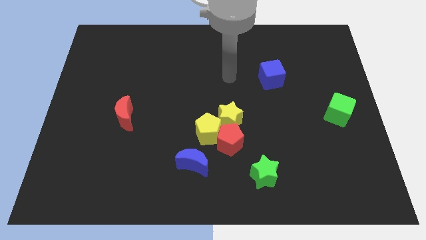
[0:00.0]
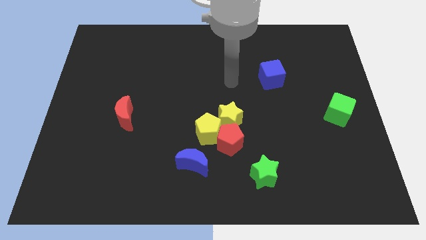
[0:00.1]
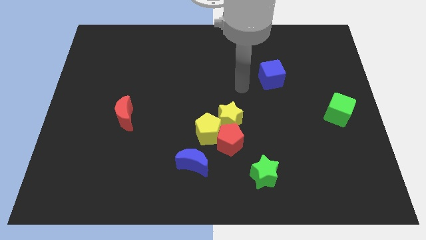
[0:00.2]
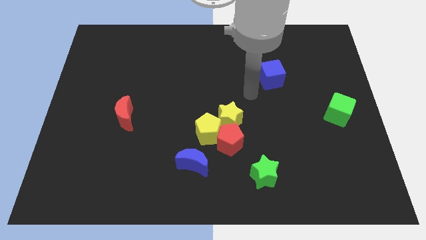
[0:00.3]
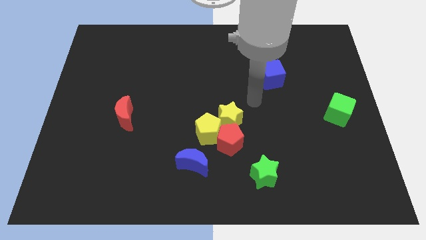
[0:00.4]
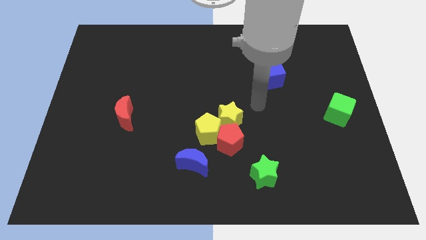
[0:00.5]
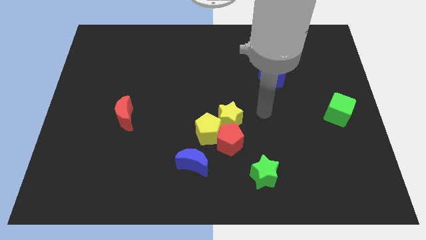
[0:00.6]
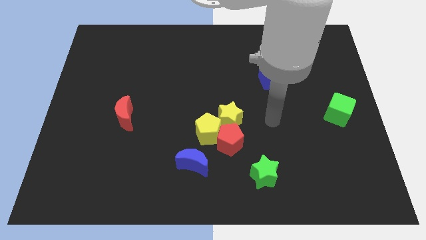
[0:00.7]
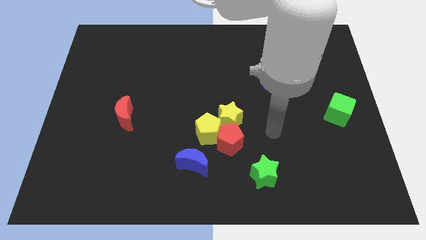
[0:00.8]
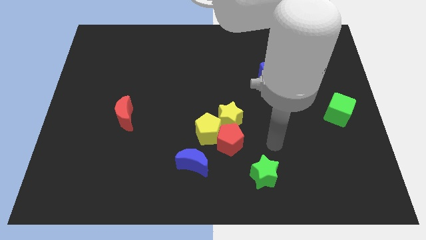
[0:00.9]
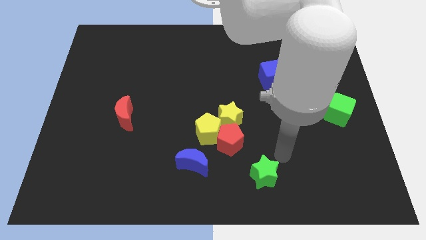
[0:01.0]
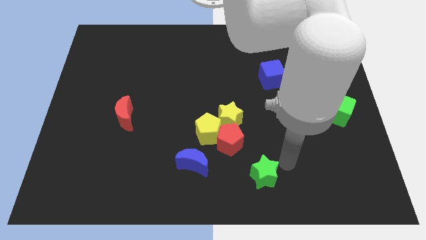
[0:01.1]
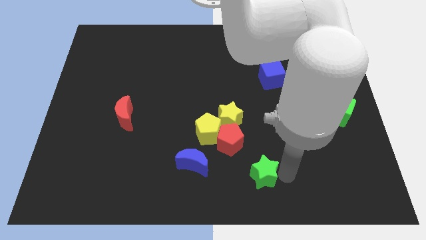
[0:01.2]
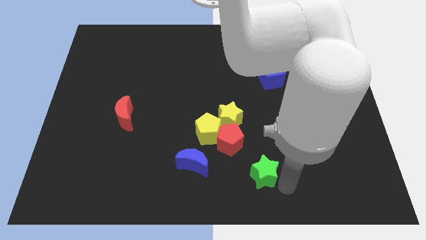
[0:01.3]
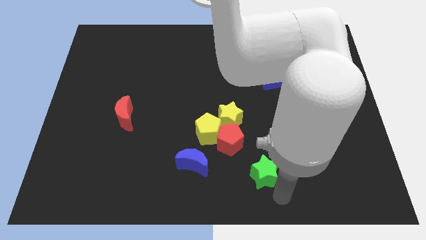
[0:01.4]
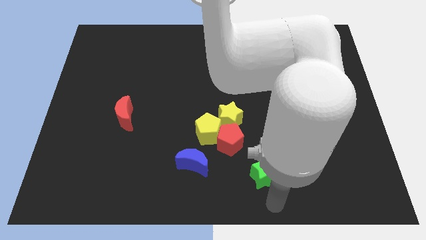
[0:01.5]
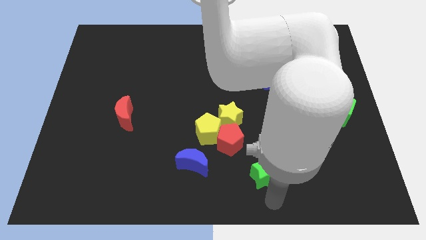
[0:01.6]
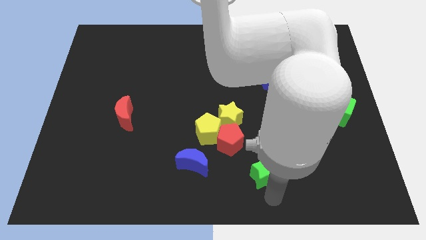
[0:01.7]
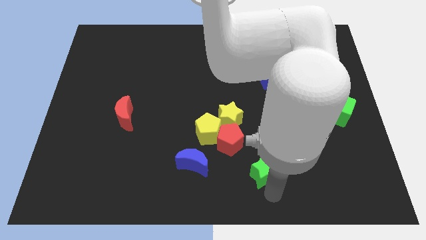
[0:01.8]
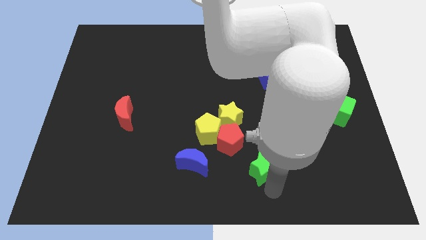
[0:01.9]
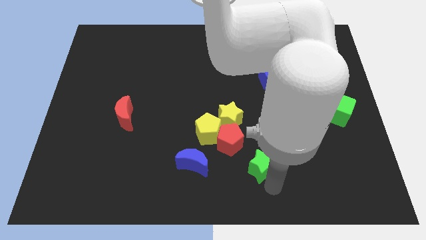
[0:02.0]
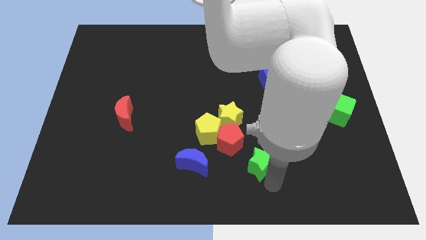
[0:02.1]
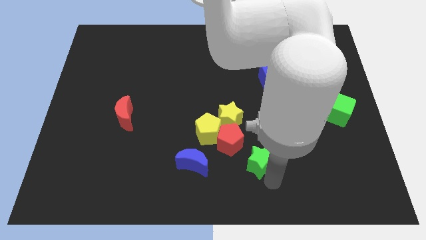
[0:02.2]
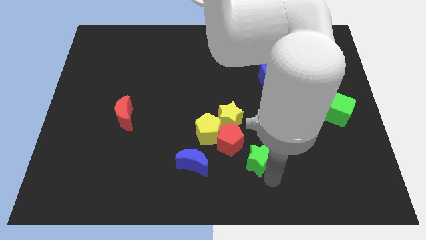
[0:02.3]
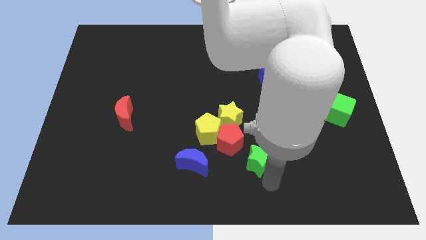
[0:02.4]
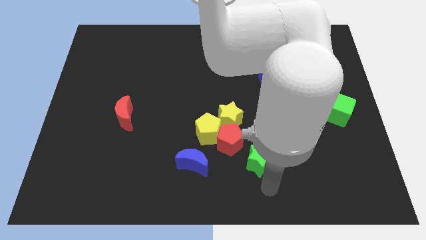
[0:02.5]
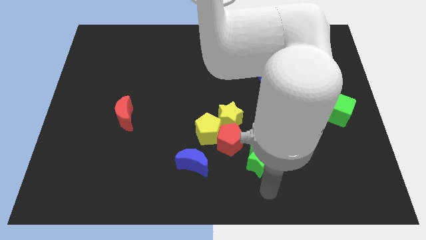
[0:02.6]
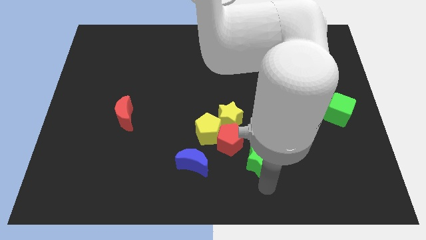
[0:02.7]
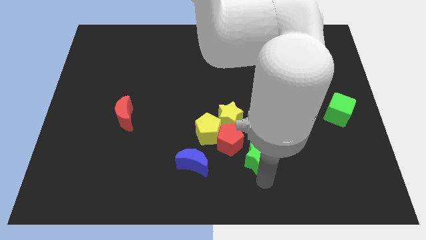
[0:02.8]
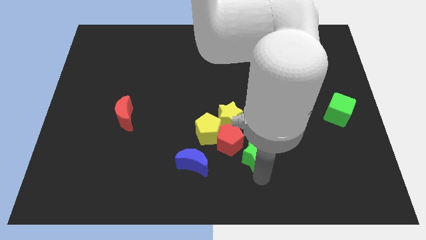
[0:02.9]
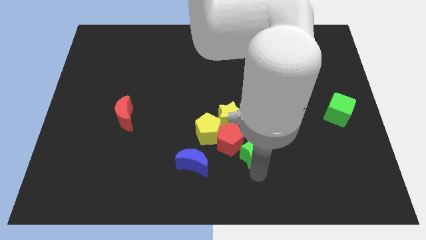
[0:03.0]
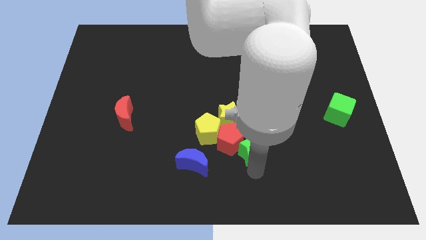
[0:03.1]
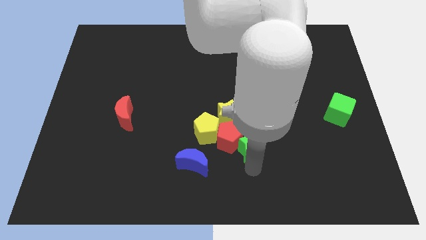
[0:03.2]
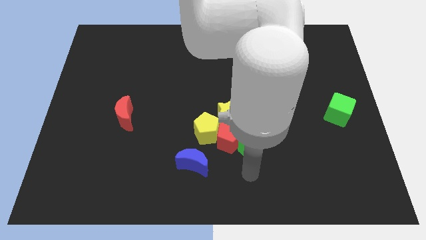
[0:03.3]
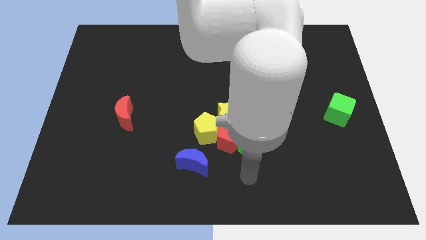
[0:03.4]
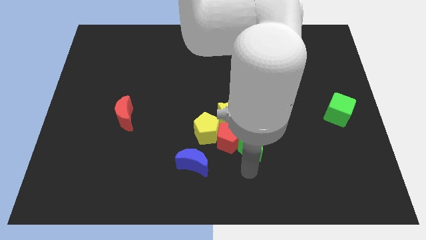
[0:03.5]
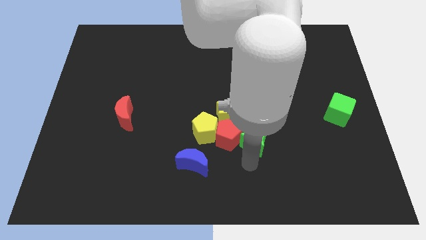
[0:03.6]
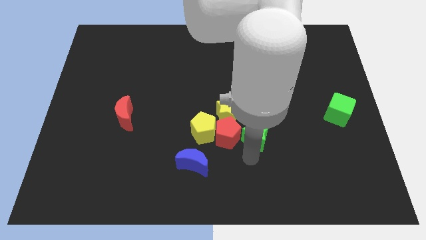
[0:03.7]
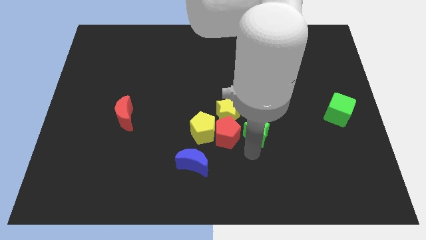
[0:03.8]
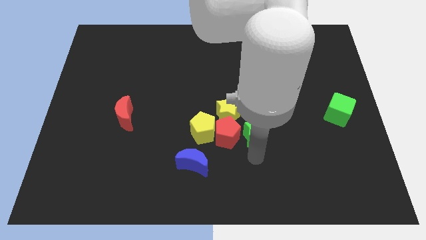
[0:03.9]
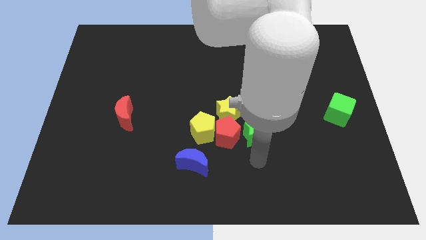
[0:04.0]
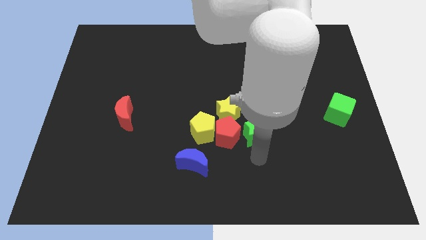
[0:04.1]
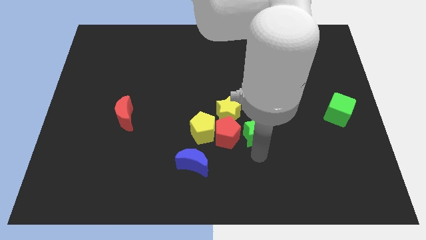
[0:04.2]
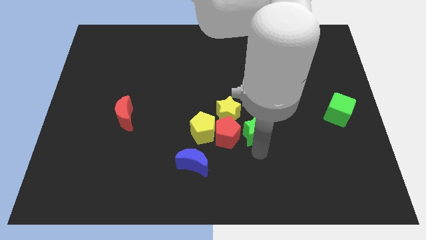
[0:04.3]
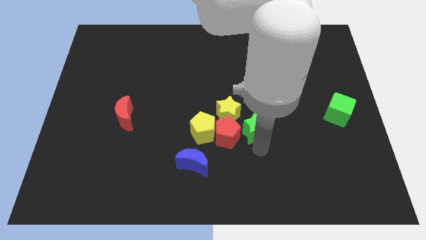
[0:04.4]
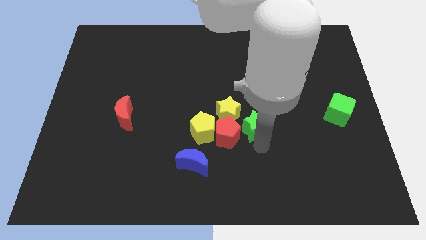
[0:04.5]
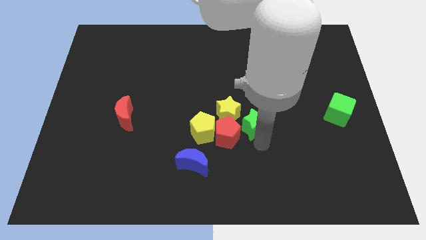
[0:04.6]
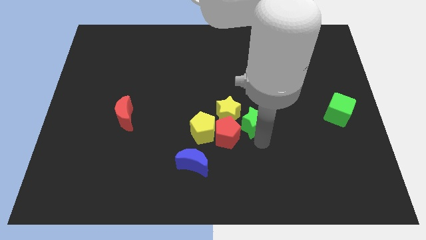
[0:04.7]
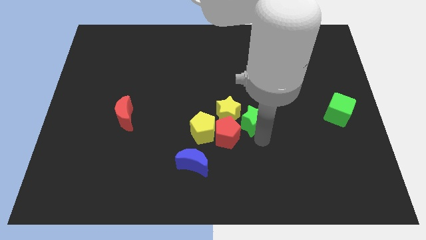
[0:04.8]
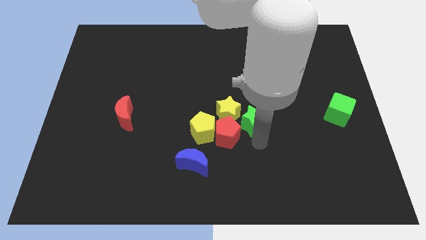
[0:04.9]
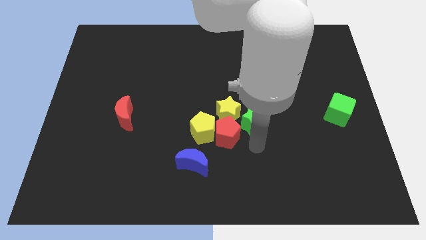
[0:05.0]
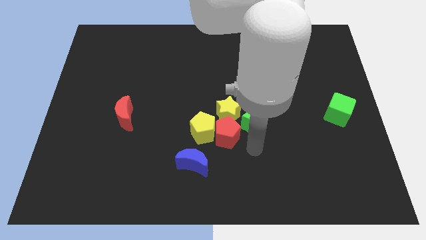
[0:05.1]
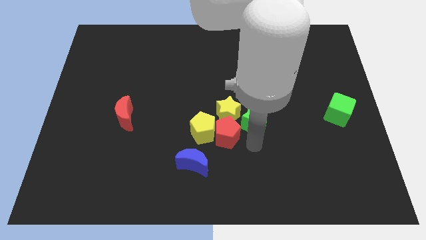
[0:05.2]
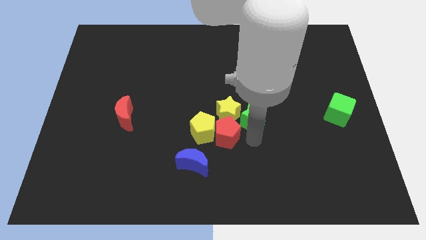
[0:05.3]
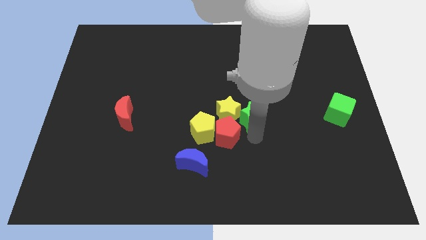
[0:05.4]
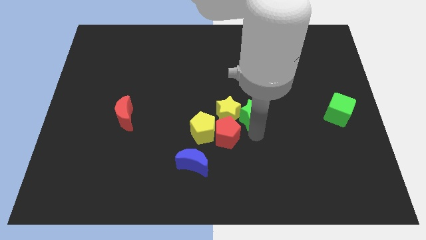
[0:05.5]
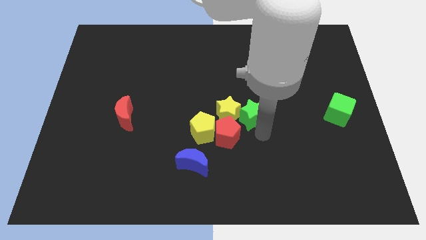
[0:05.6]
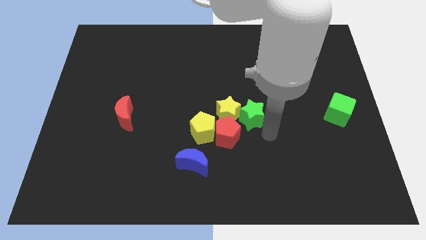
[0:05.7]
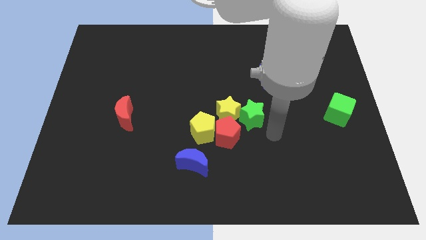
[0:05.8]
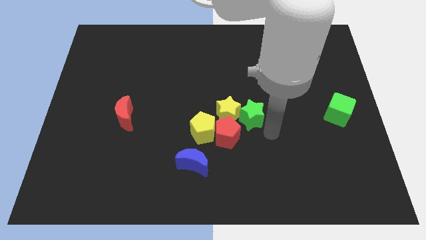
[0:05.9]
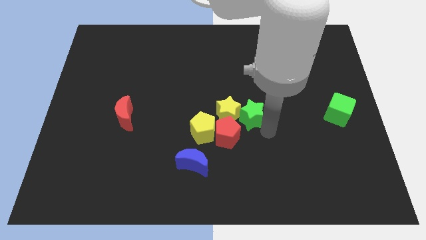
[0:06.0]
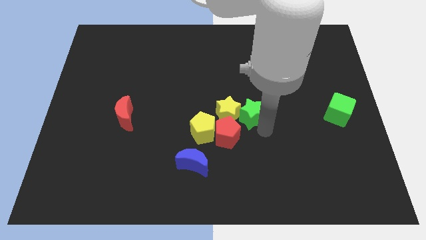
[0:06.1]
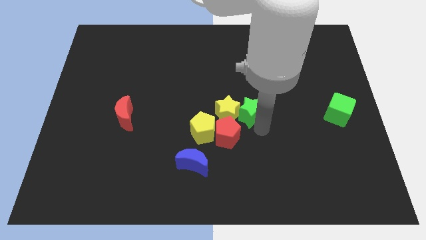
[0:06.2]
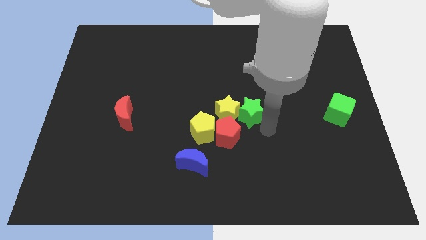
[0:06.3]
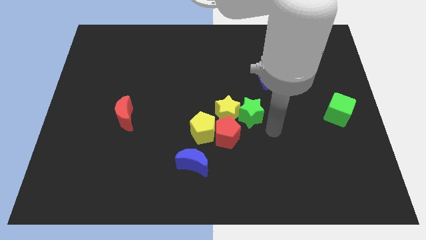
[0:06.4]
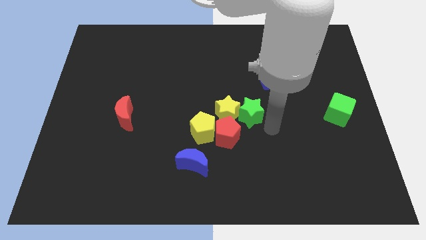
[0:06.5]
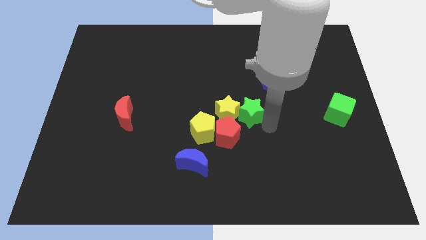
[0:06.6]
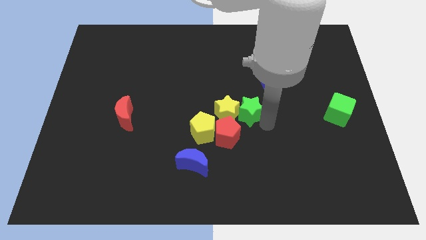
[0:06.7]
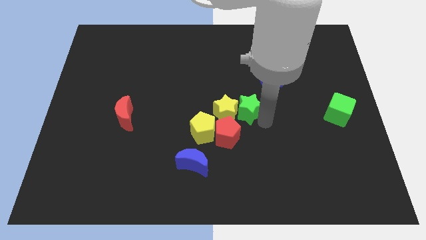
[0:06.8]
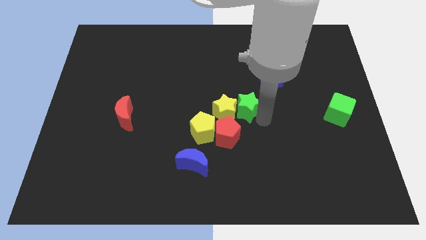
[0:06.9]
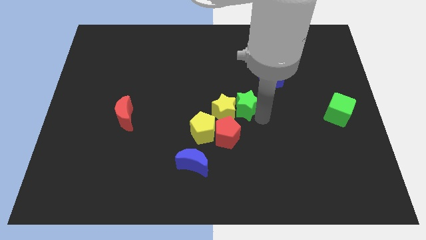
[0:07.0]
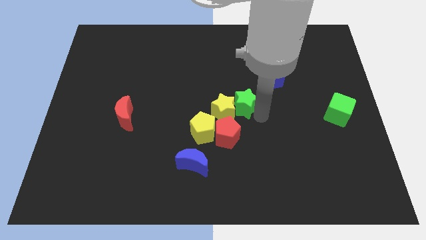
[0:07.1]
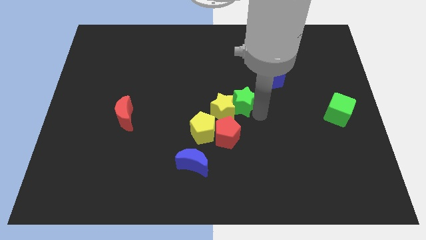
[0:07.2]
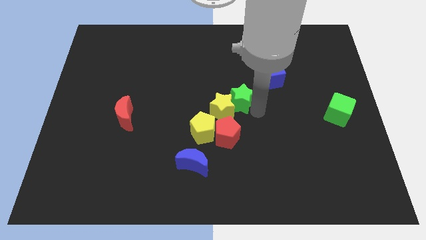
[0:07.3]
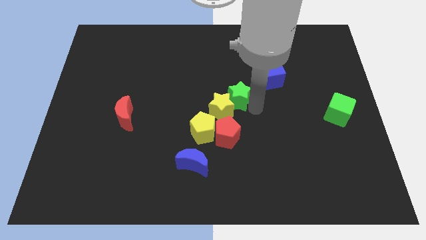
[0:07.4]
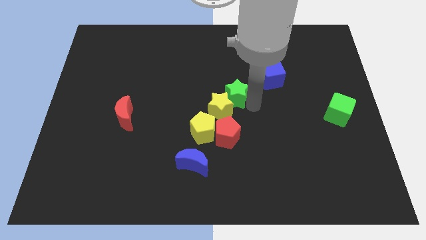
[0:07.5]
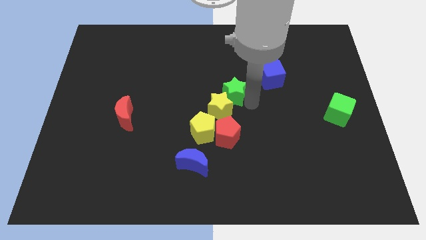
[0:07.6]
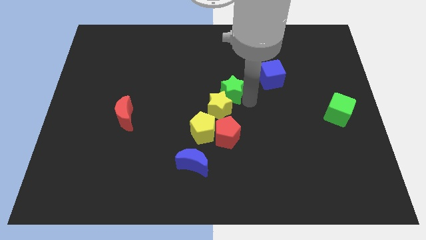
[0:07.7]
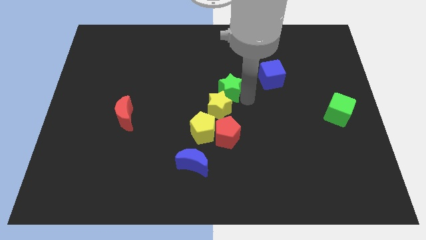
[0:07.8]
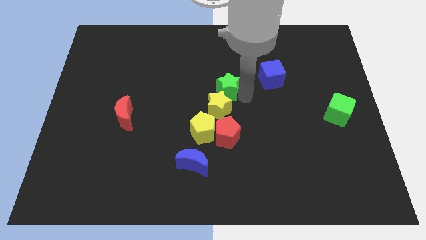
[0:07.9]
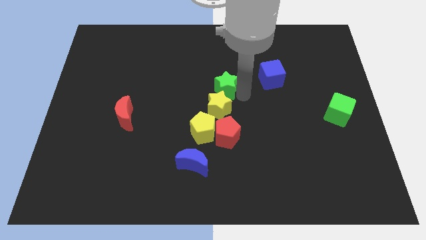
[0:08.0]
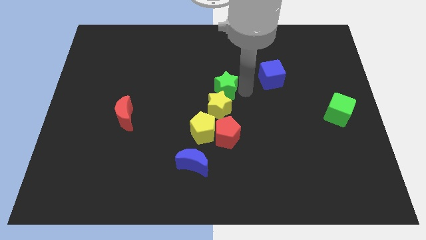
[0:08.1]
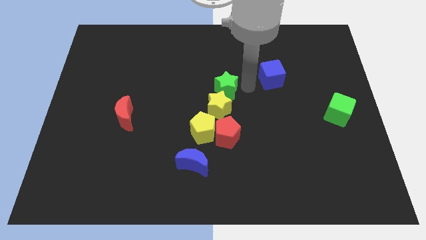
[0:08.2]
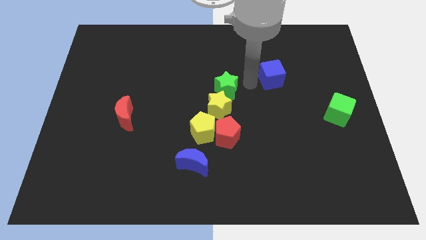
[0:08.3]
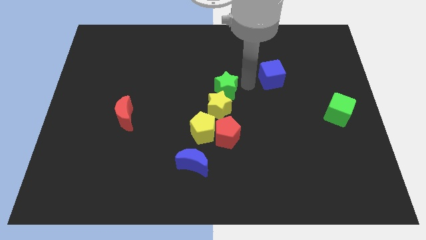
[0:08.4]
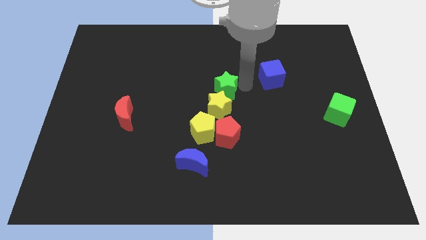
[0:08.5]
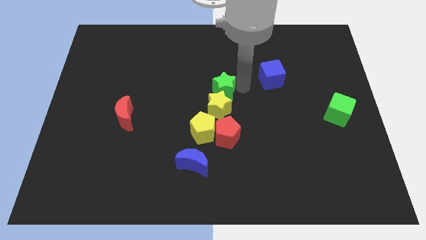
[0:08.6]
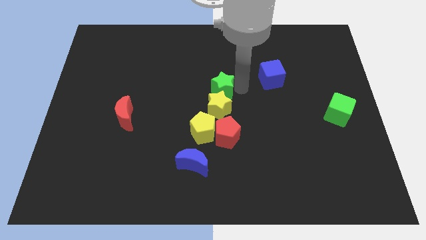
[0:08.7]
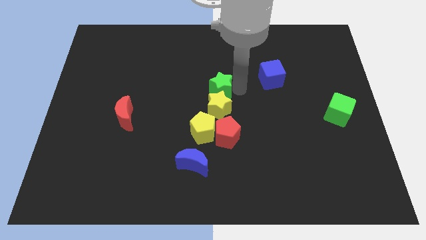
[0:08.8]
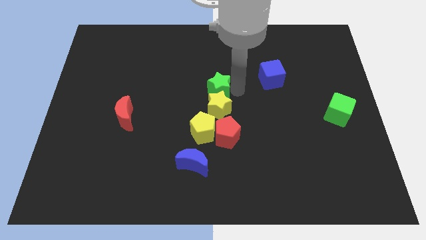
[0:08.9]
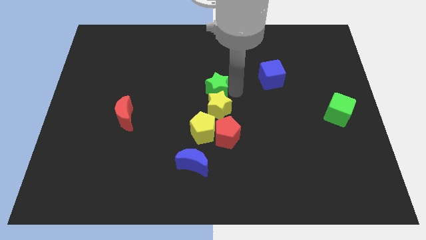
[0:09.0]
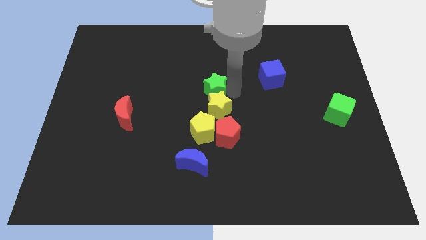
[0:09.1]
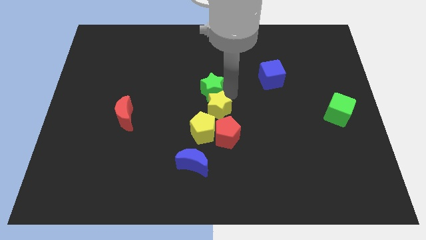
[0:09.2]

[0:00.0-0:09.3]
push the green star diagonally up and left
